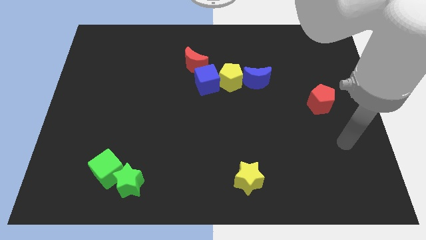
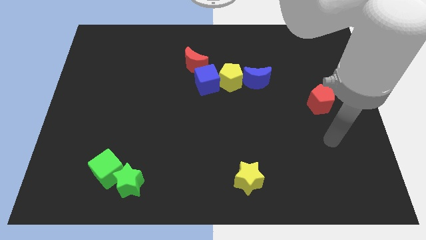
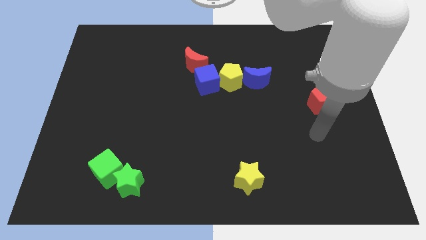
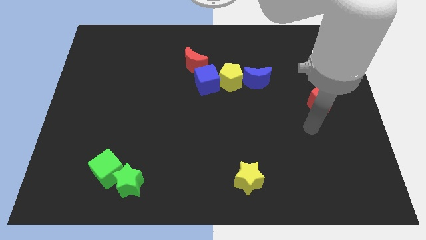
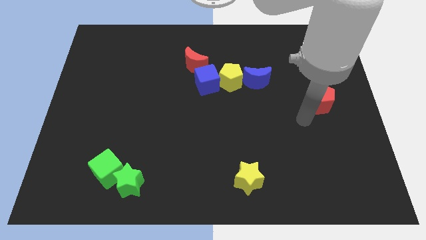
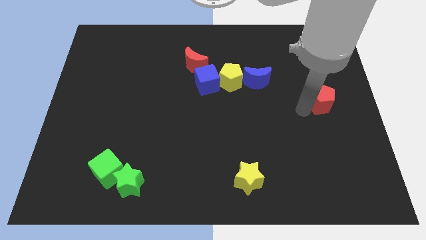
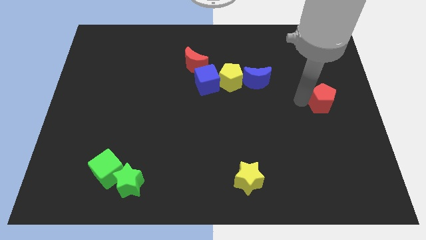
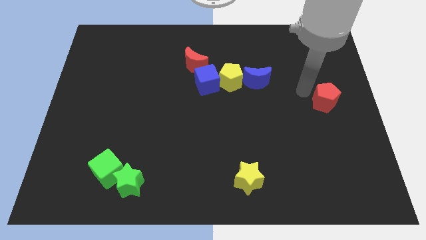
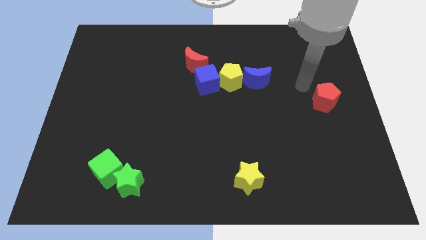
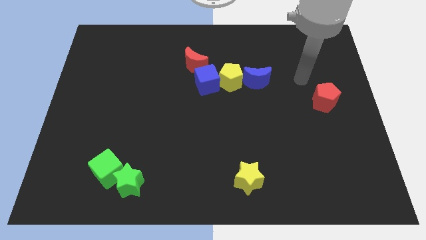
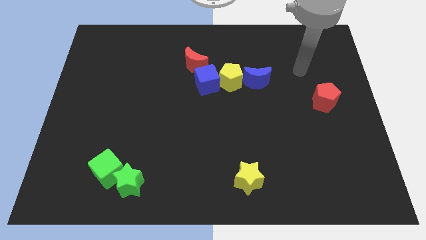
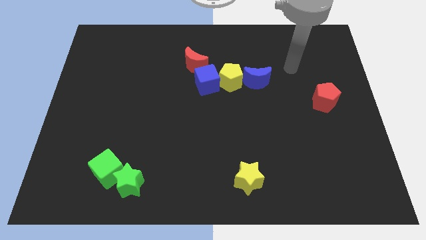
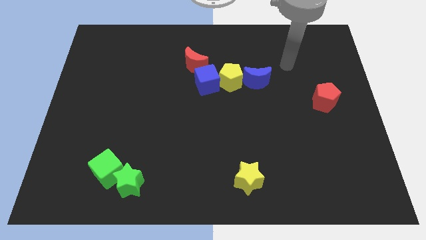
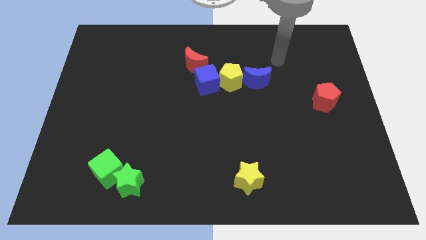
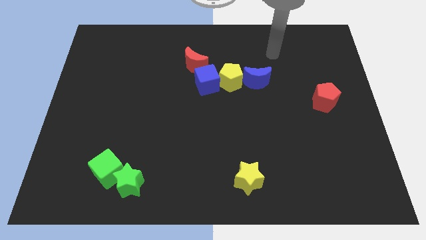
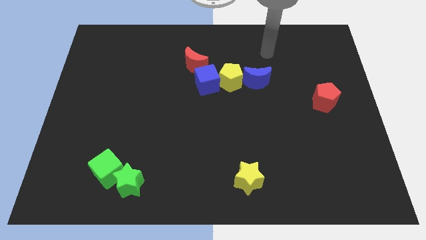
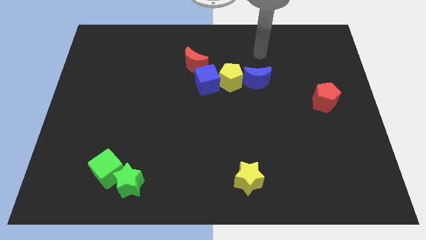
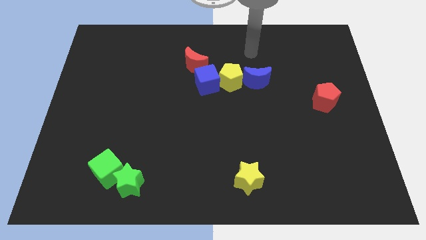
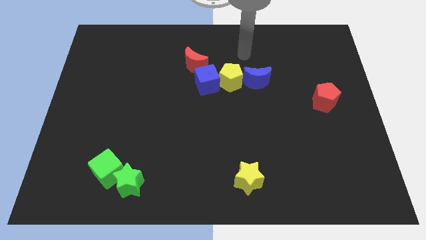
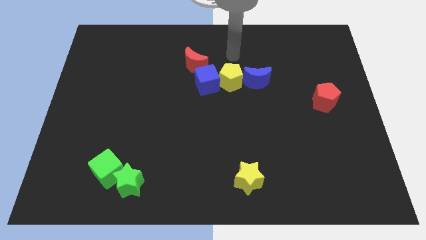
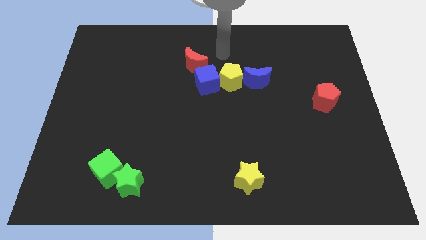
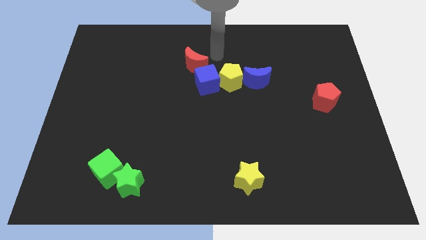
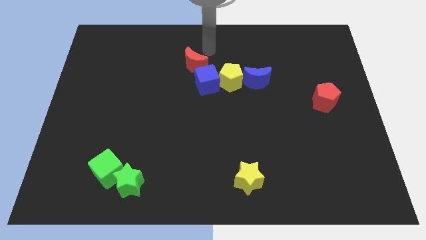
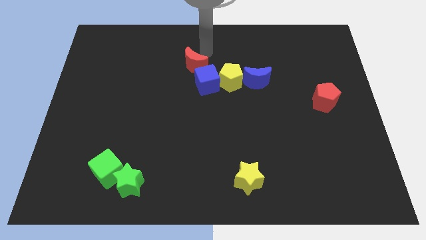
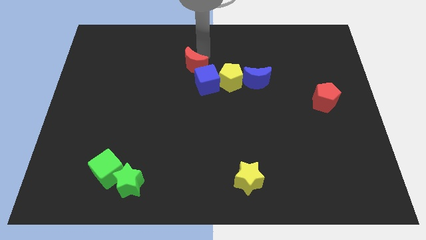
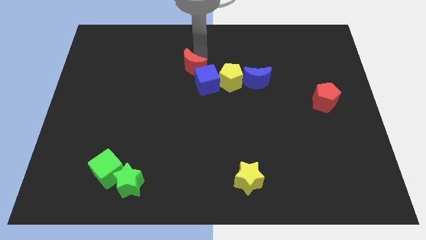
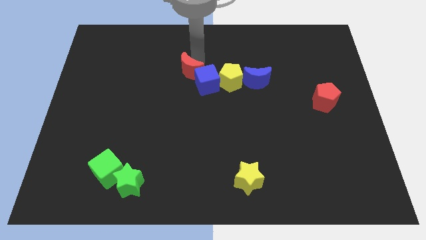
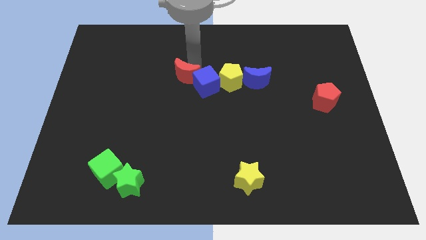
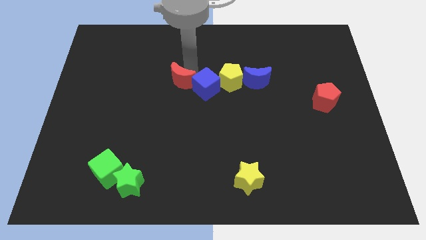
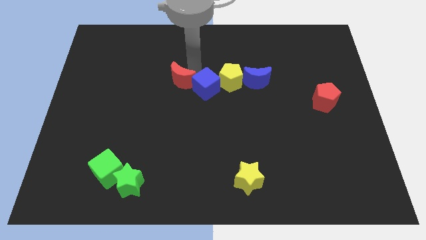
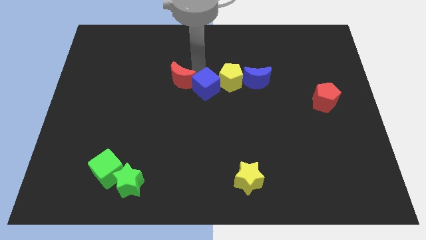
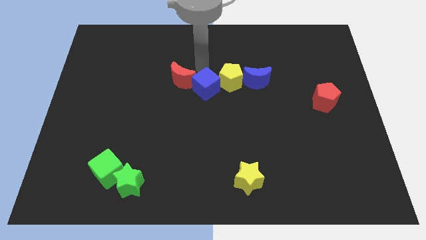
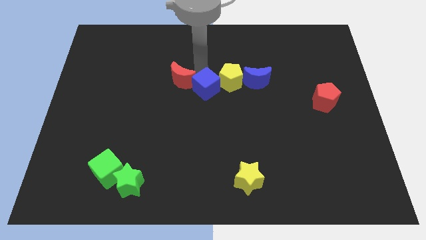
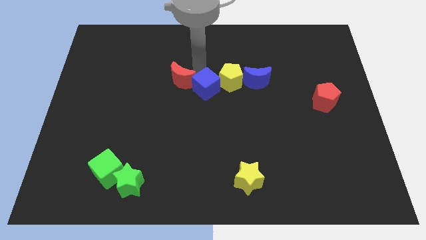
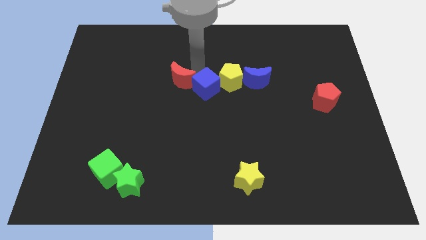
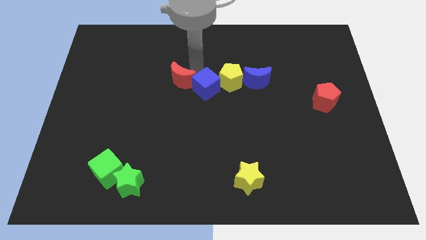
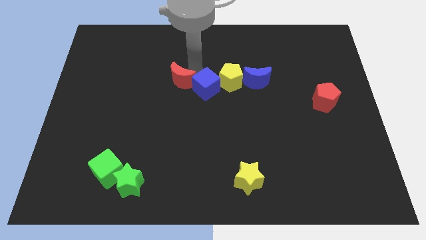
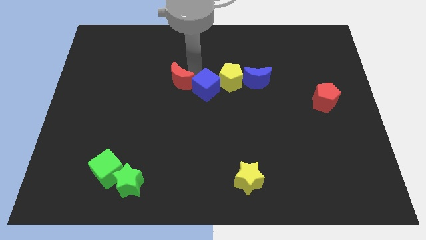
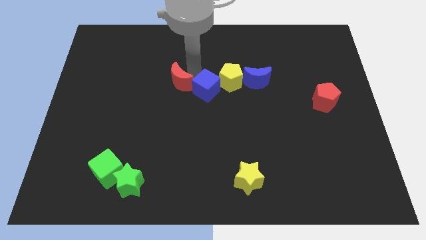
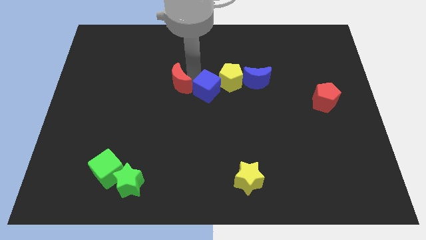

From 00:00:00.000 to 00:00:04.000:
slide the red moon diagonally down and to the left a little

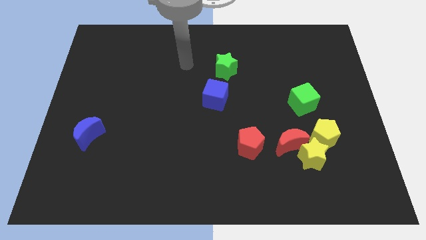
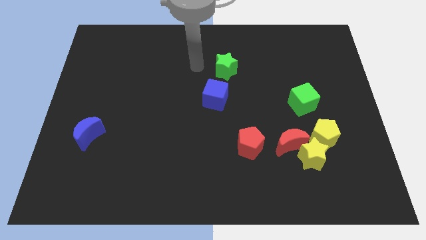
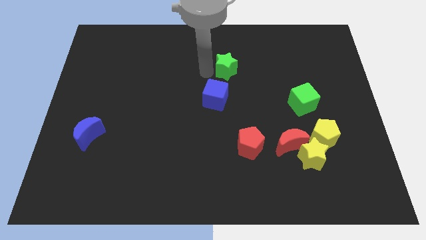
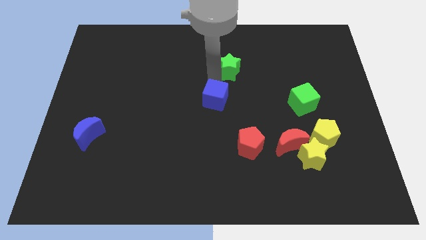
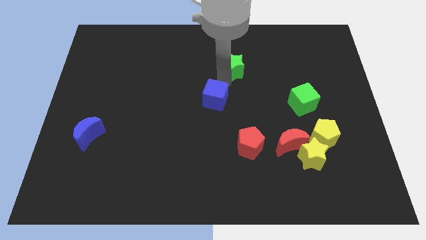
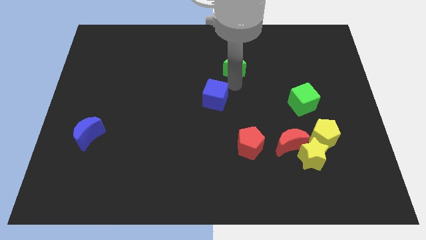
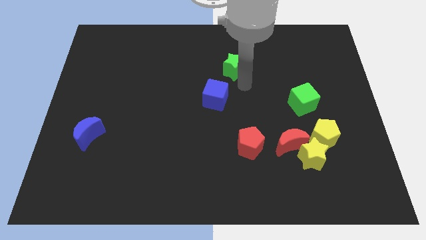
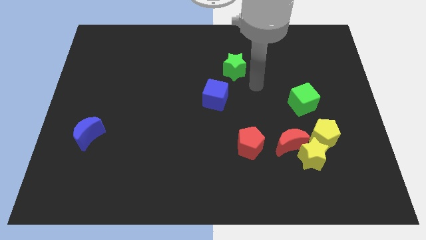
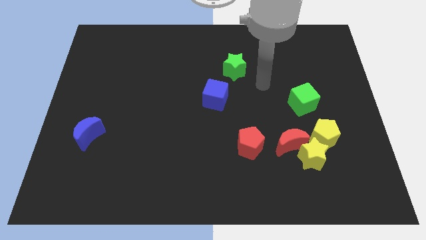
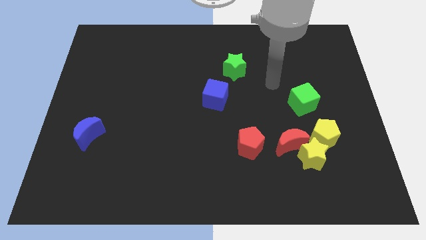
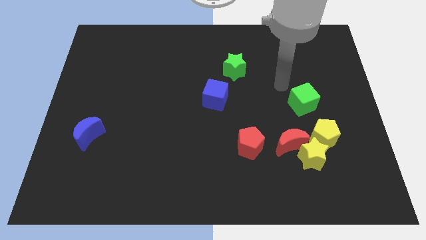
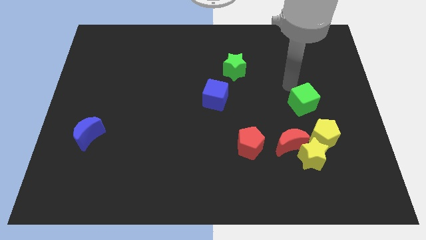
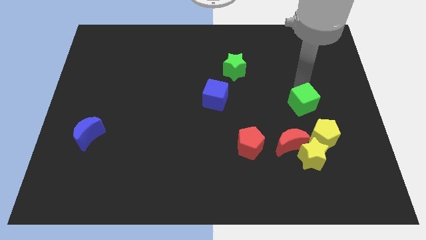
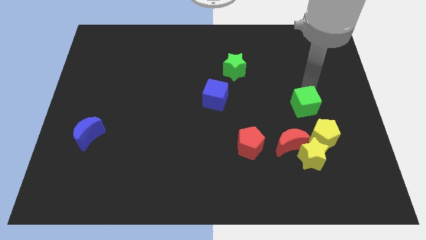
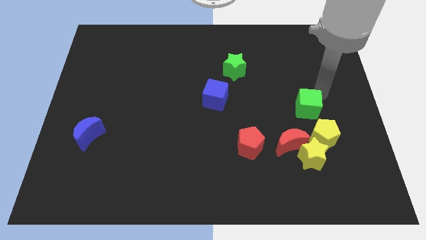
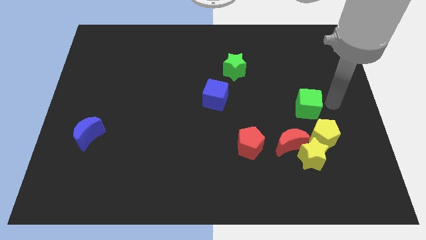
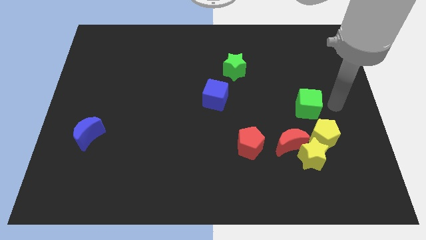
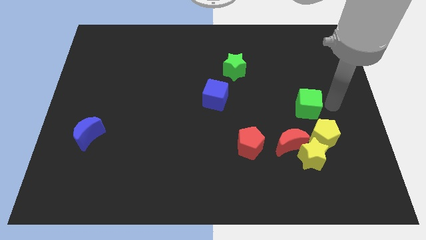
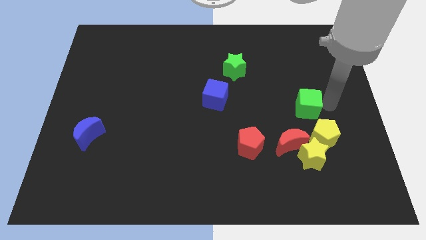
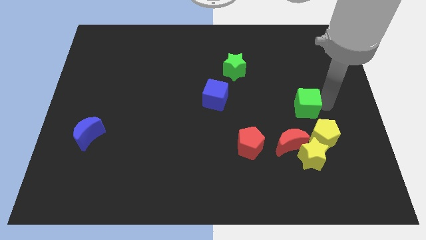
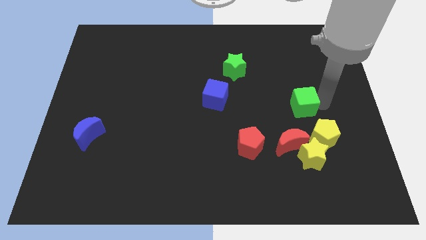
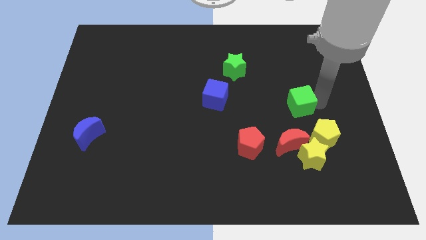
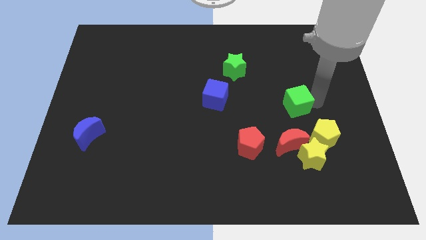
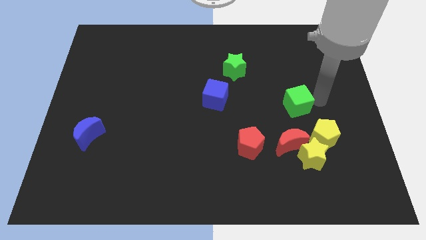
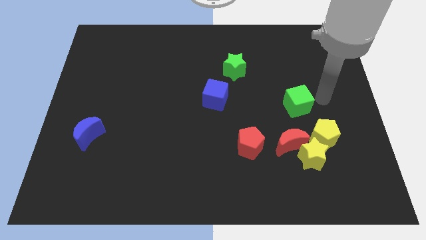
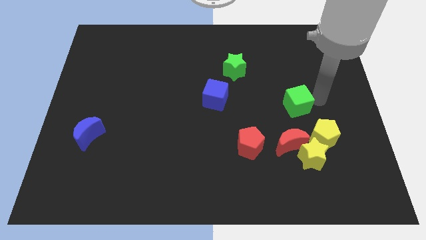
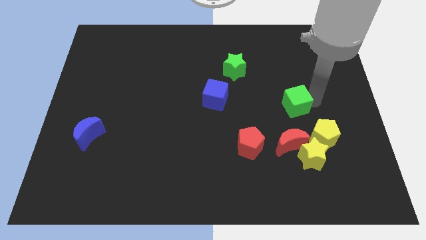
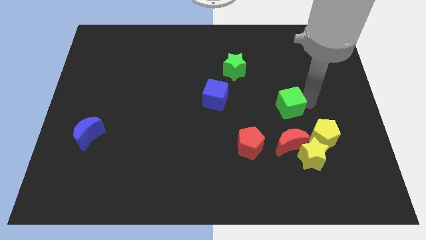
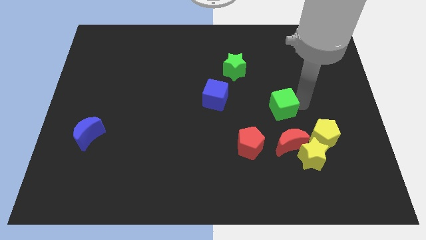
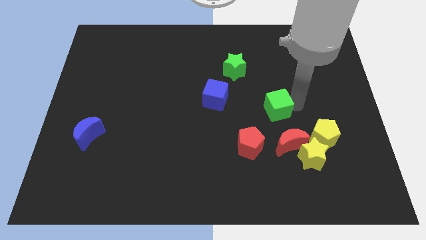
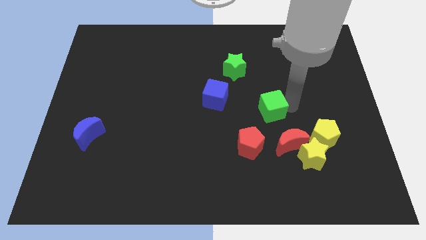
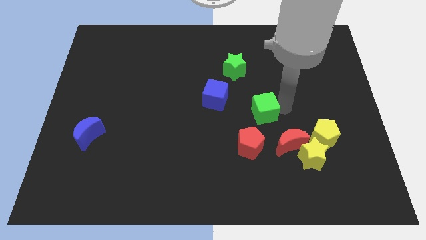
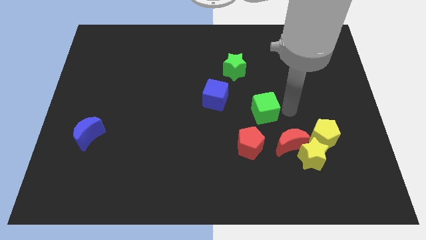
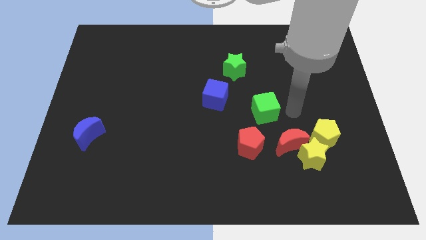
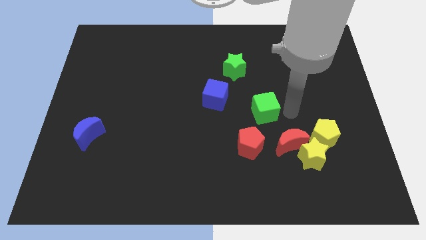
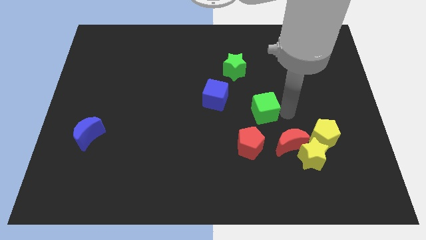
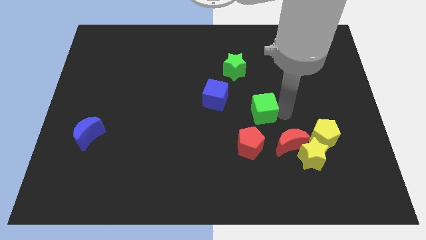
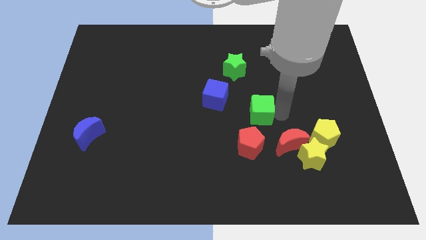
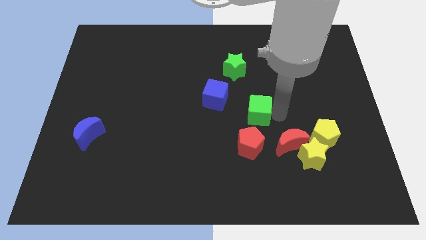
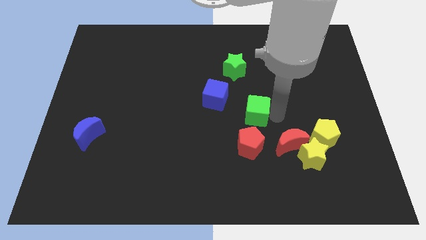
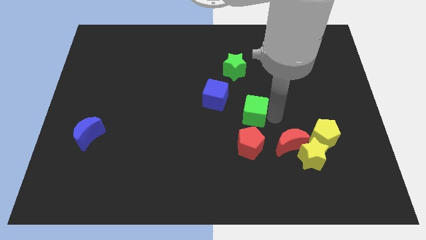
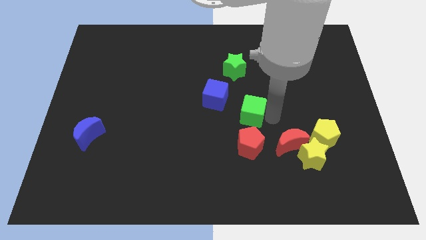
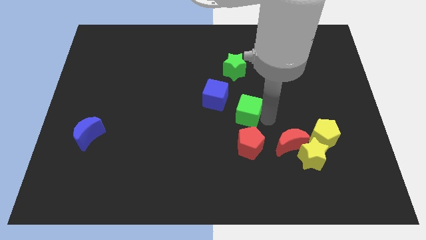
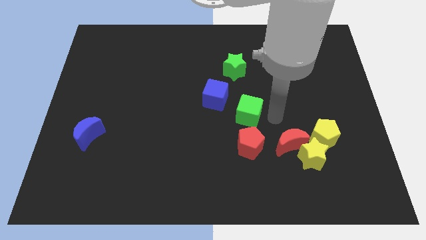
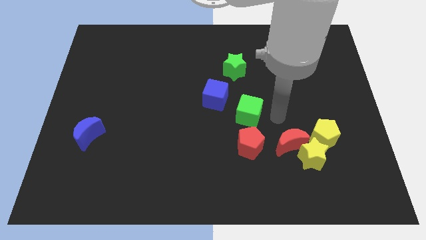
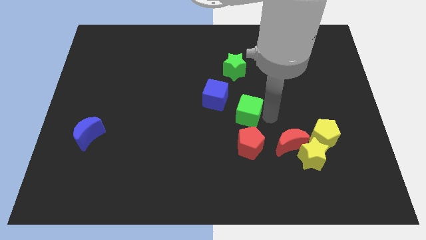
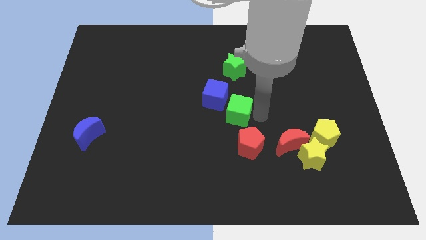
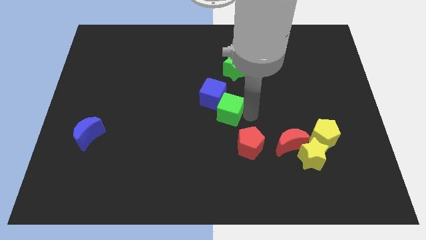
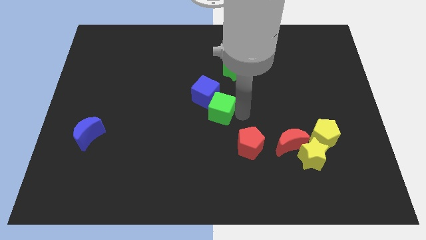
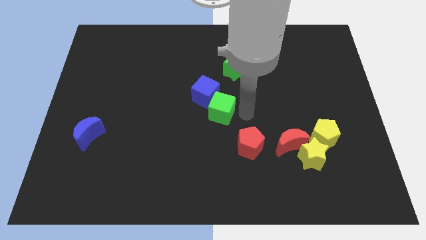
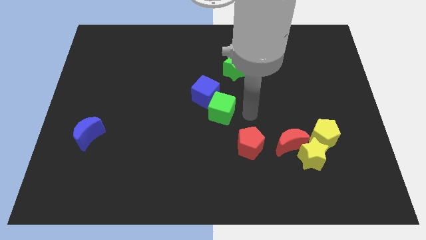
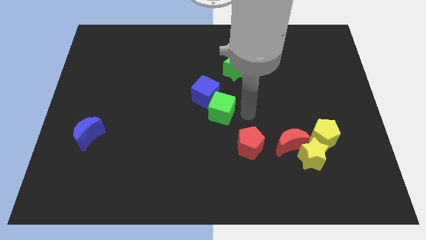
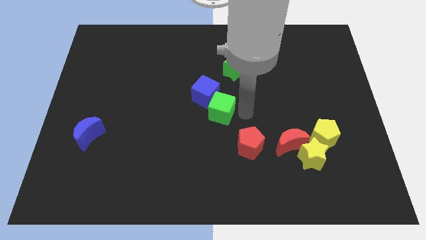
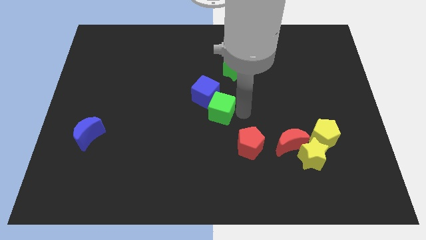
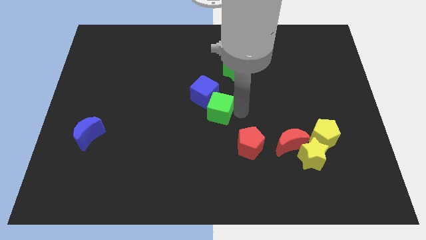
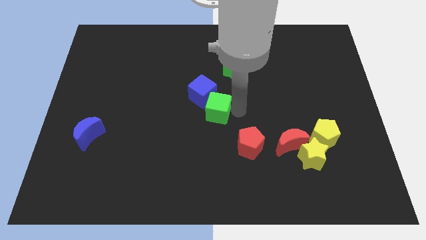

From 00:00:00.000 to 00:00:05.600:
slide the green cube to the left
